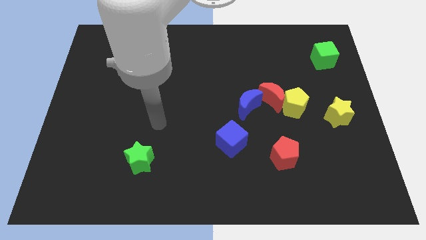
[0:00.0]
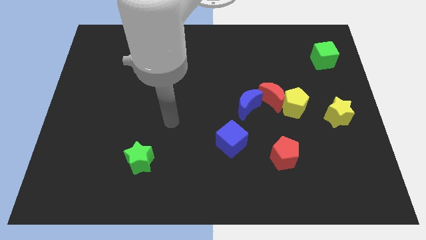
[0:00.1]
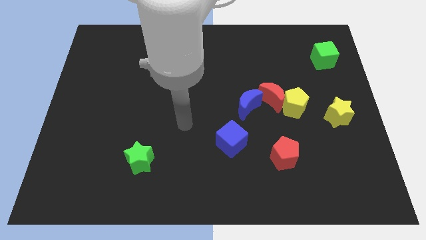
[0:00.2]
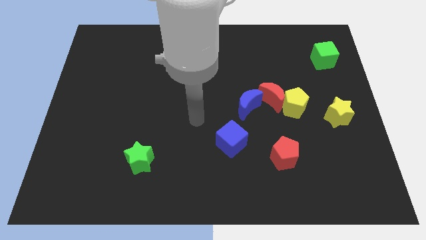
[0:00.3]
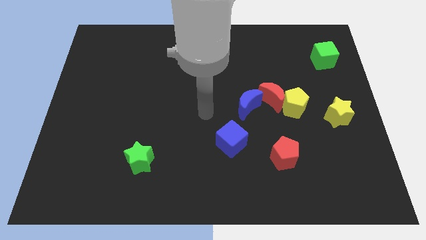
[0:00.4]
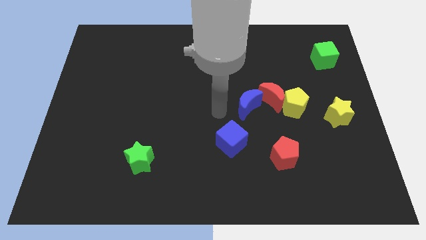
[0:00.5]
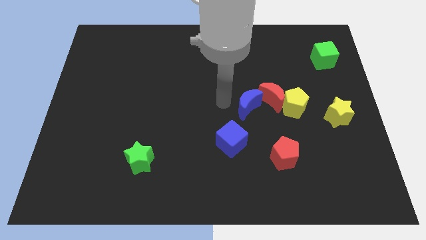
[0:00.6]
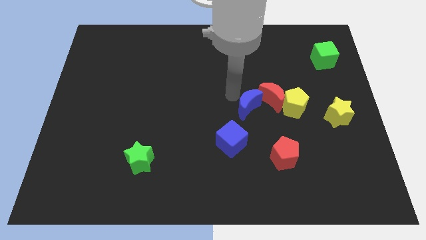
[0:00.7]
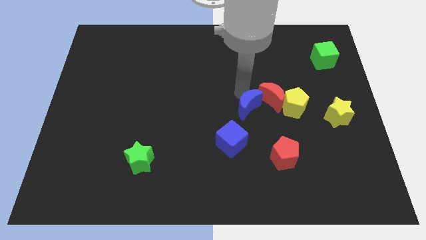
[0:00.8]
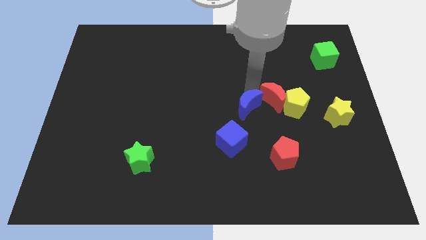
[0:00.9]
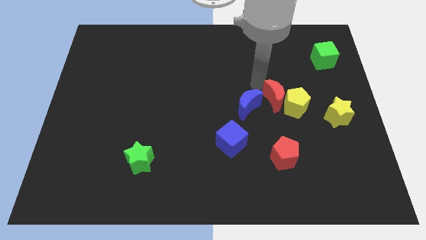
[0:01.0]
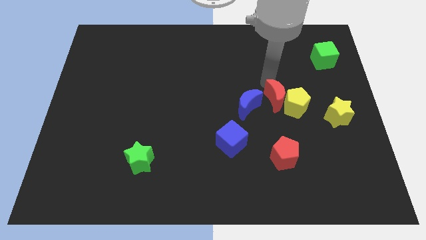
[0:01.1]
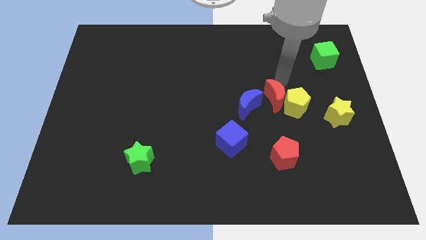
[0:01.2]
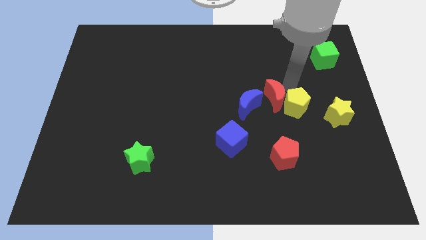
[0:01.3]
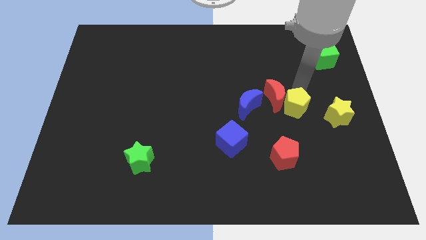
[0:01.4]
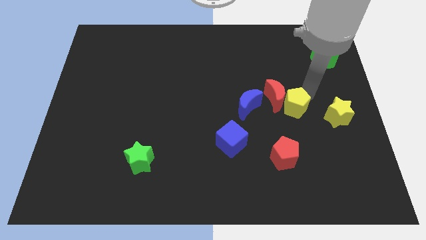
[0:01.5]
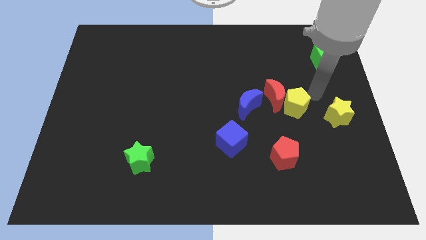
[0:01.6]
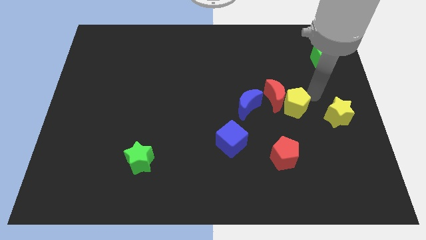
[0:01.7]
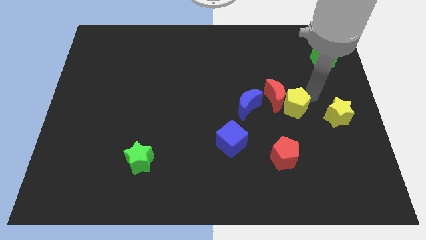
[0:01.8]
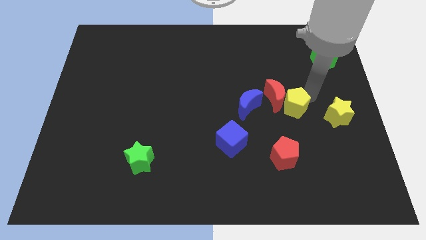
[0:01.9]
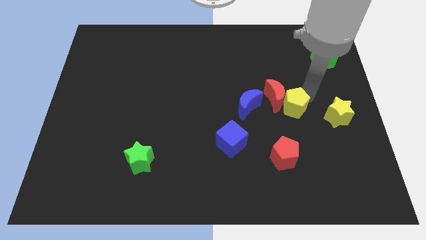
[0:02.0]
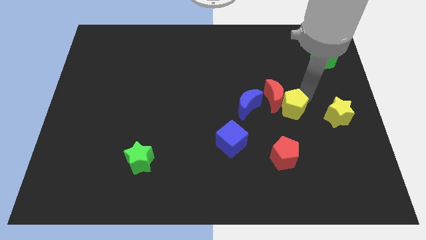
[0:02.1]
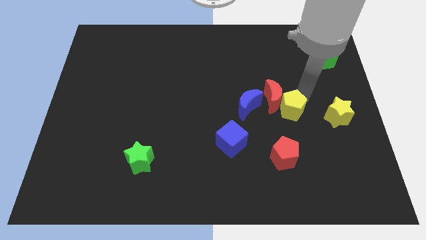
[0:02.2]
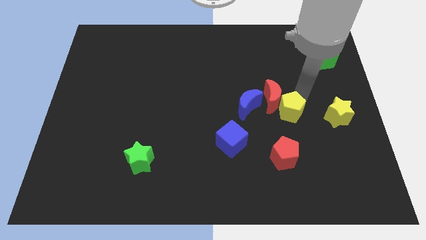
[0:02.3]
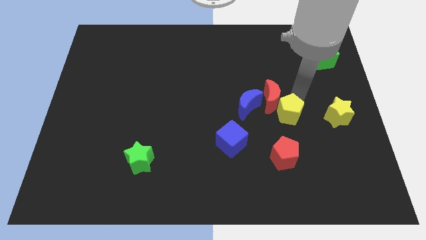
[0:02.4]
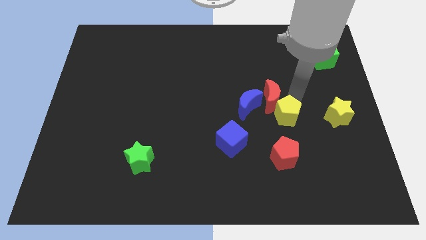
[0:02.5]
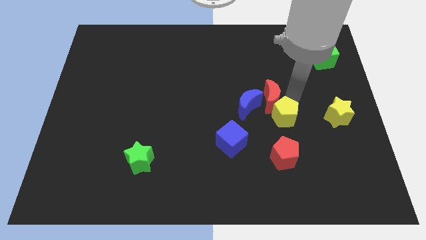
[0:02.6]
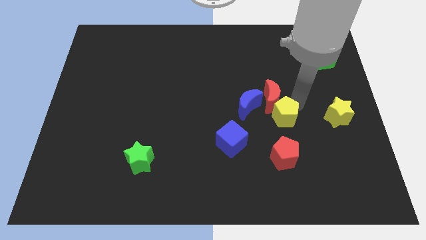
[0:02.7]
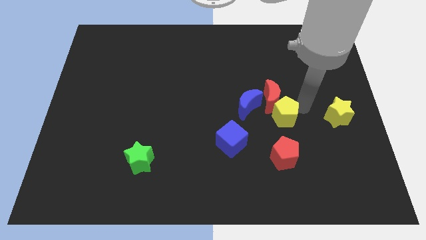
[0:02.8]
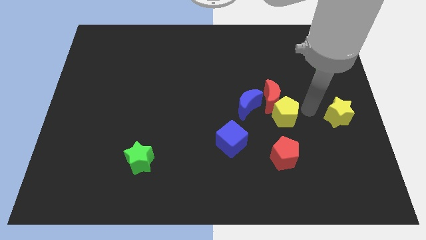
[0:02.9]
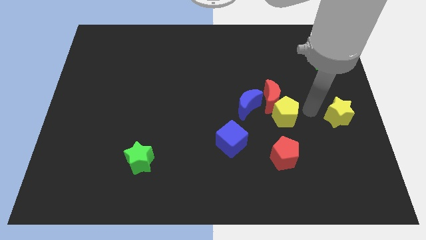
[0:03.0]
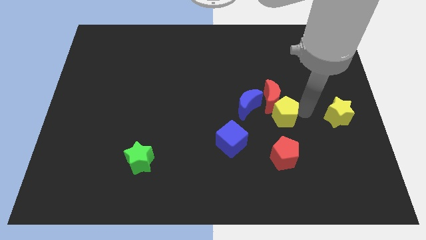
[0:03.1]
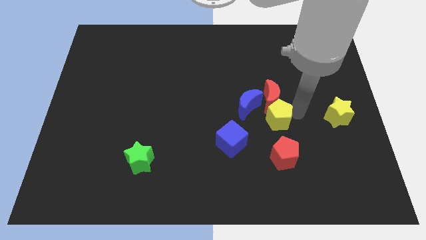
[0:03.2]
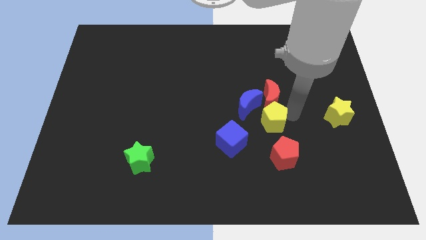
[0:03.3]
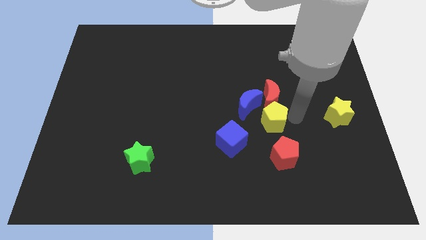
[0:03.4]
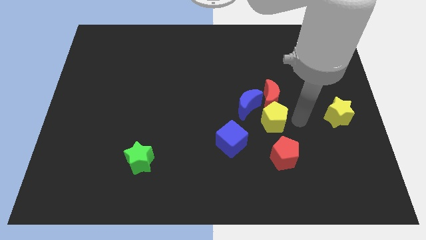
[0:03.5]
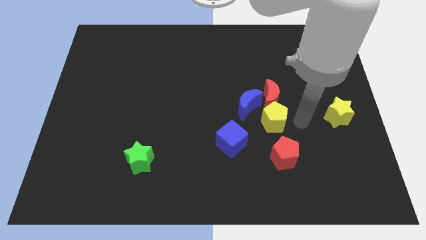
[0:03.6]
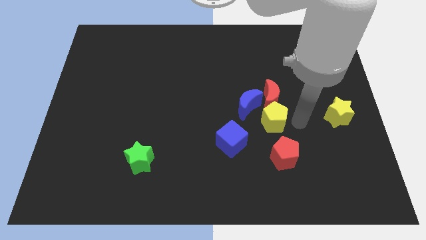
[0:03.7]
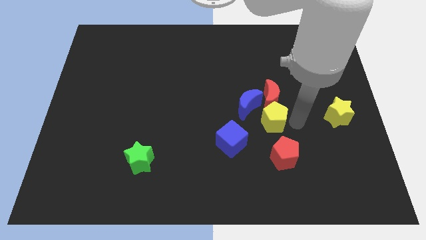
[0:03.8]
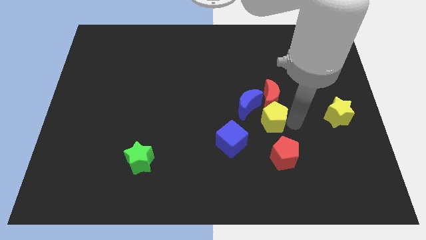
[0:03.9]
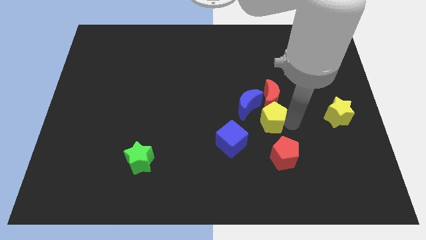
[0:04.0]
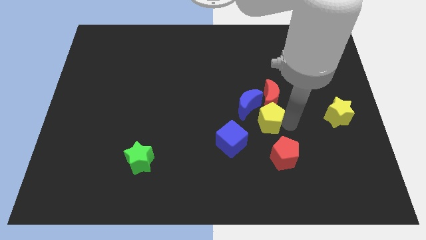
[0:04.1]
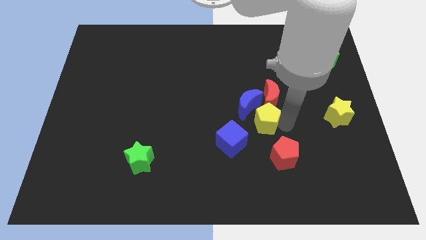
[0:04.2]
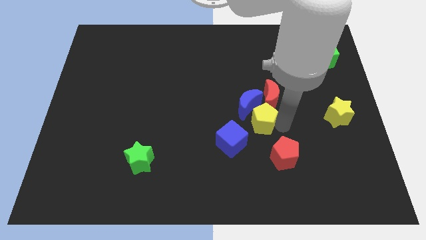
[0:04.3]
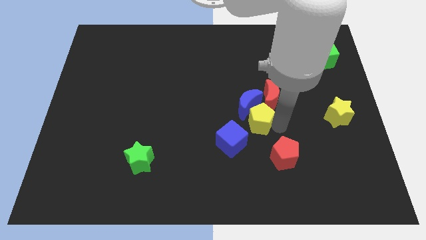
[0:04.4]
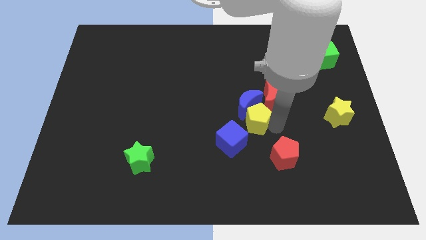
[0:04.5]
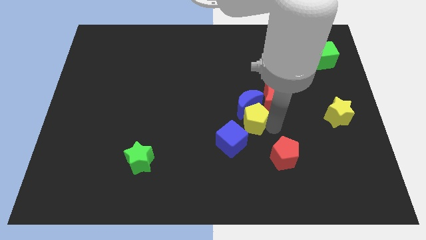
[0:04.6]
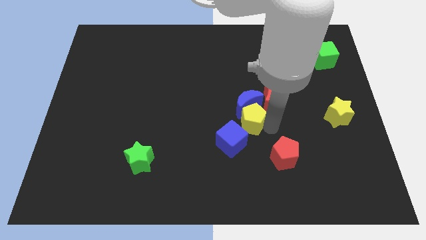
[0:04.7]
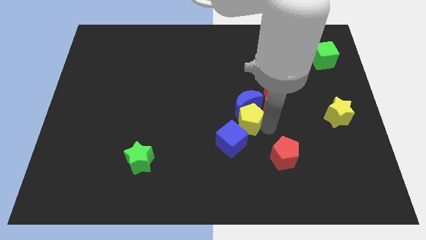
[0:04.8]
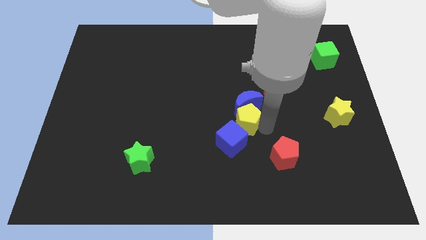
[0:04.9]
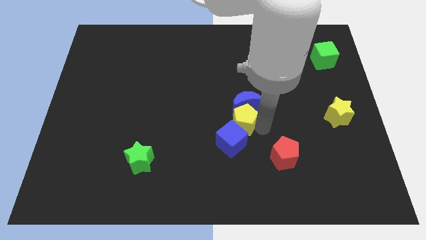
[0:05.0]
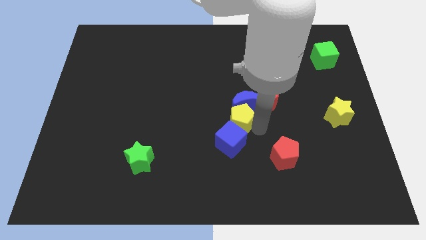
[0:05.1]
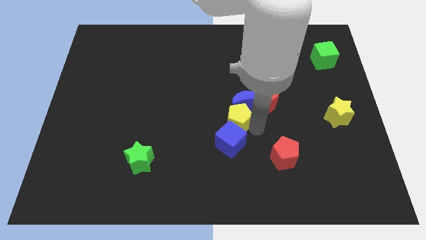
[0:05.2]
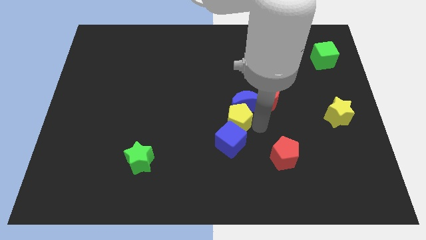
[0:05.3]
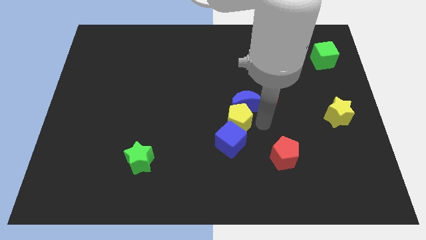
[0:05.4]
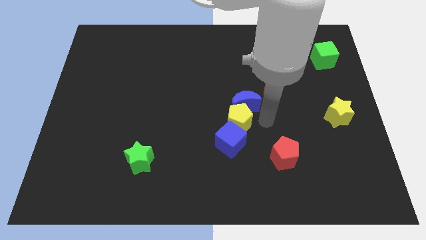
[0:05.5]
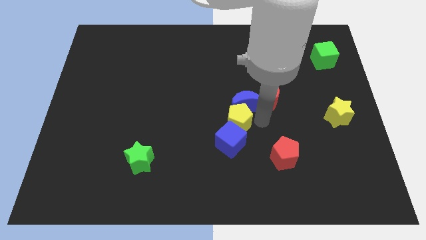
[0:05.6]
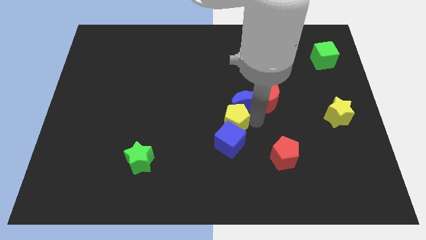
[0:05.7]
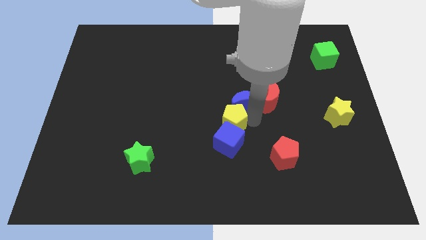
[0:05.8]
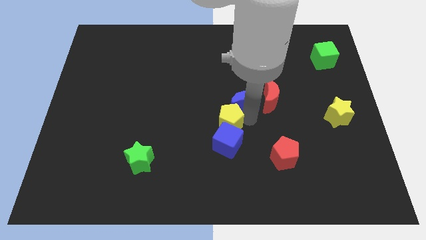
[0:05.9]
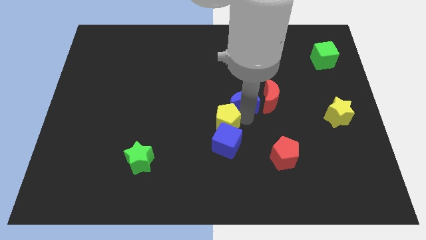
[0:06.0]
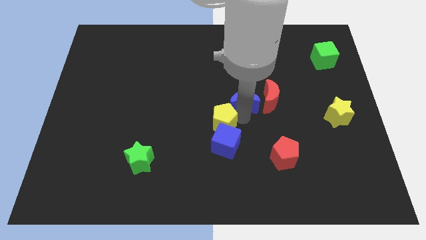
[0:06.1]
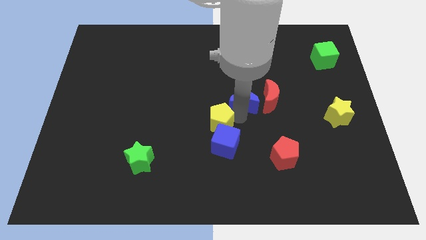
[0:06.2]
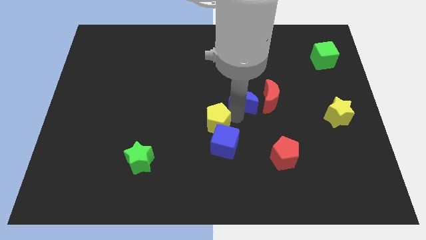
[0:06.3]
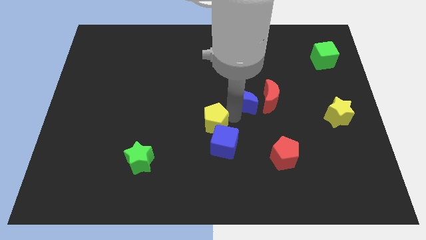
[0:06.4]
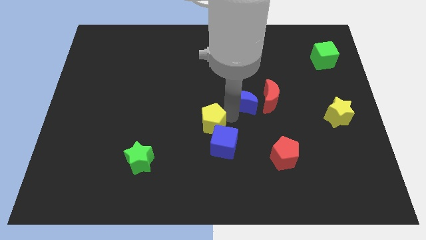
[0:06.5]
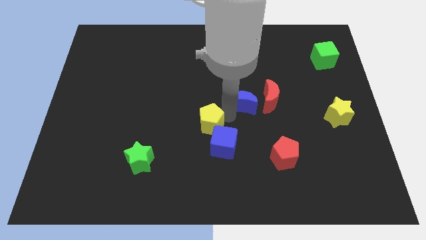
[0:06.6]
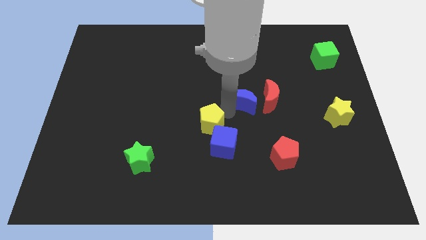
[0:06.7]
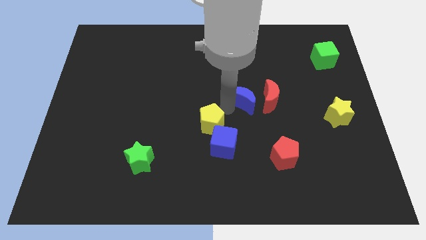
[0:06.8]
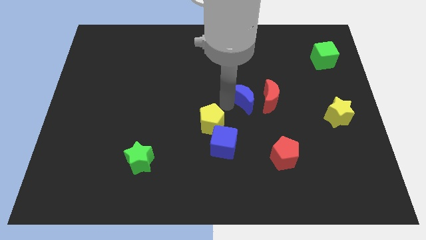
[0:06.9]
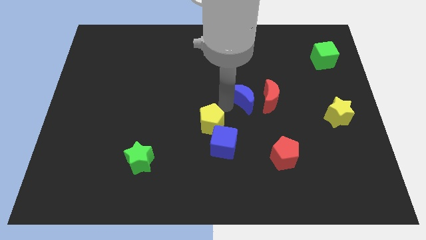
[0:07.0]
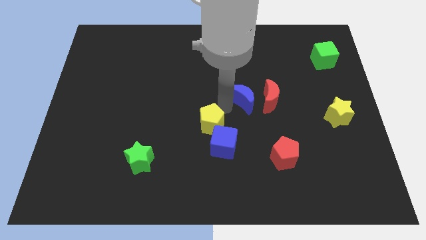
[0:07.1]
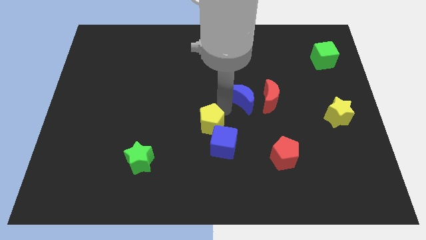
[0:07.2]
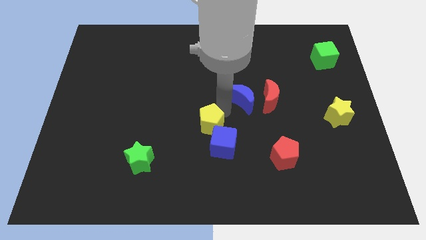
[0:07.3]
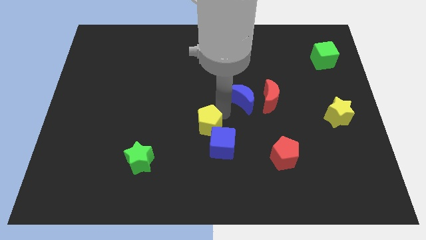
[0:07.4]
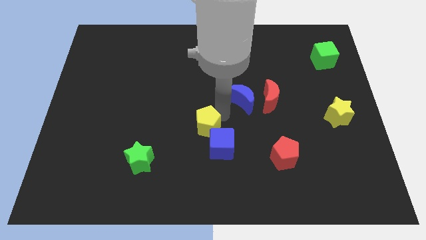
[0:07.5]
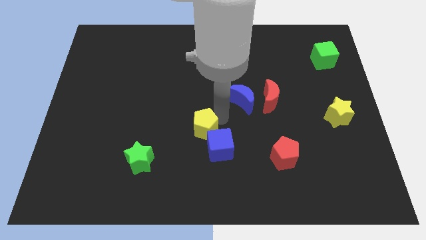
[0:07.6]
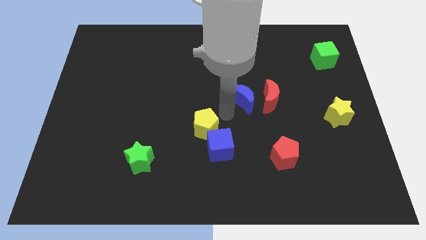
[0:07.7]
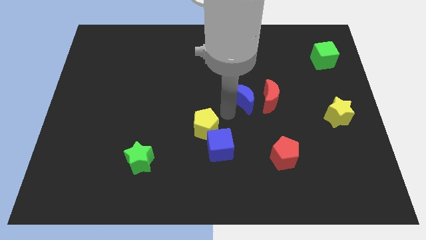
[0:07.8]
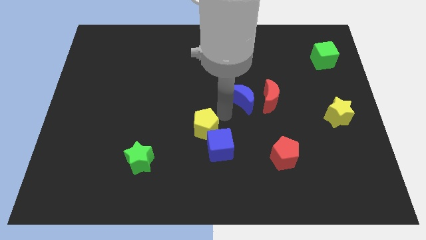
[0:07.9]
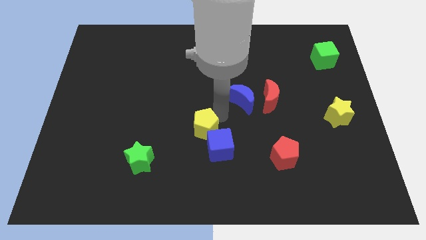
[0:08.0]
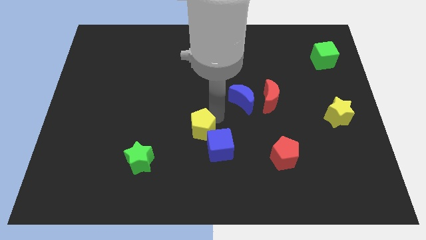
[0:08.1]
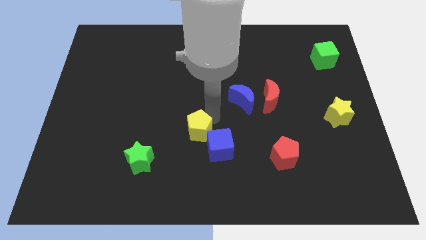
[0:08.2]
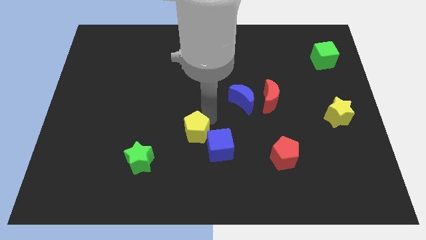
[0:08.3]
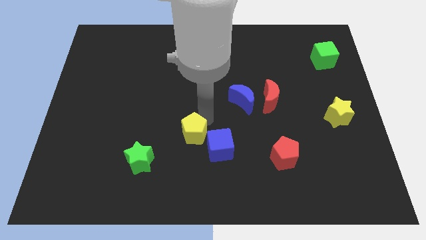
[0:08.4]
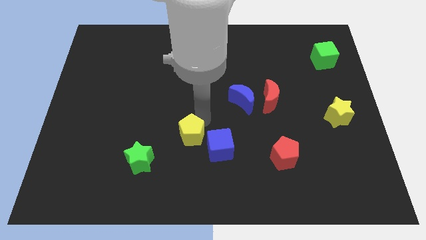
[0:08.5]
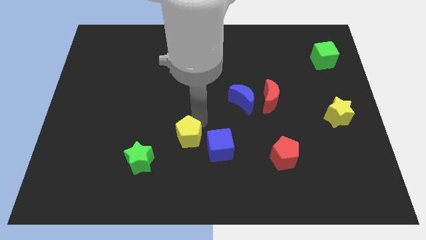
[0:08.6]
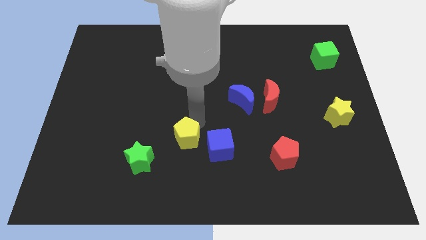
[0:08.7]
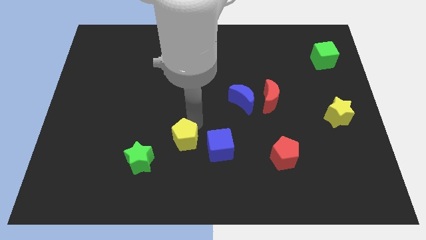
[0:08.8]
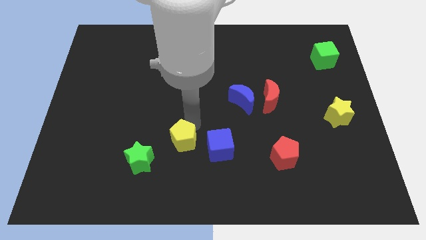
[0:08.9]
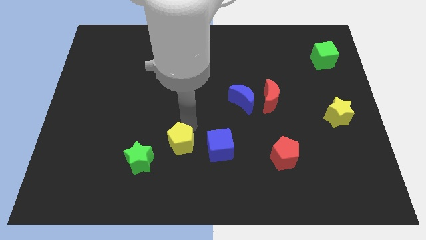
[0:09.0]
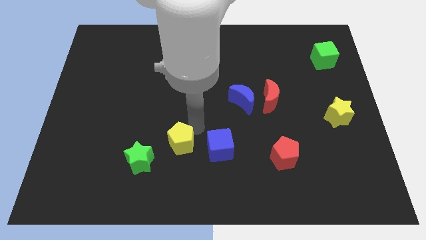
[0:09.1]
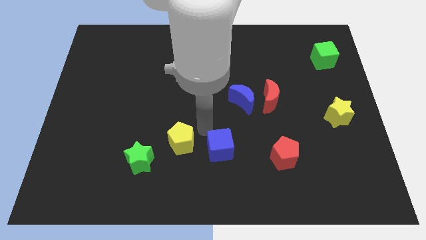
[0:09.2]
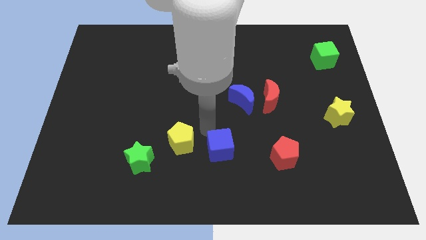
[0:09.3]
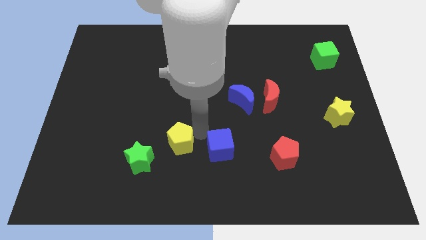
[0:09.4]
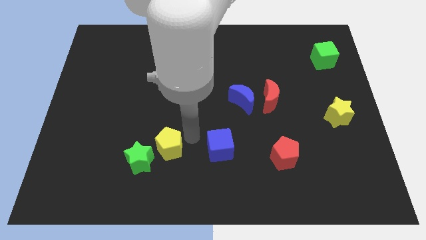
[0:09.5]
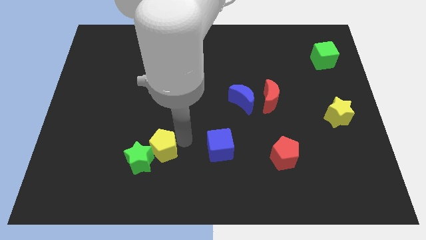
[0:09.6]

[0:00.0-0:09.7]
slide the yellow pentagon next to the green star
